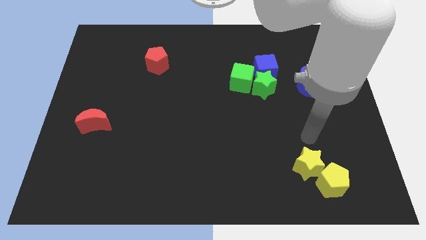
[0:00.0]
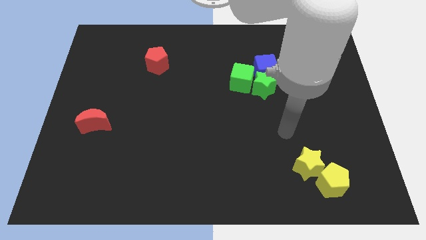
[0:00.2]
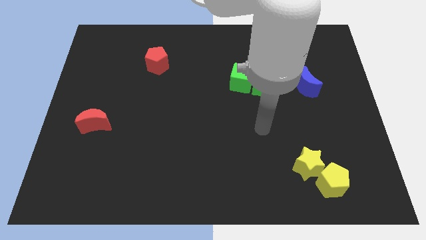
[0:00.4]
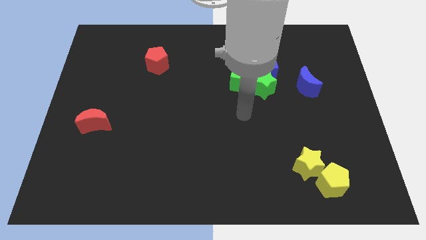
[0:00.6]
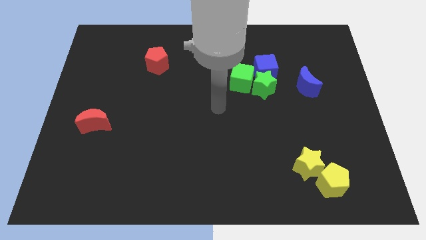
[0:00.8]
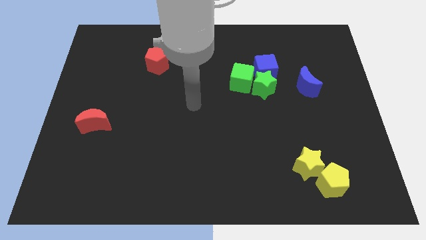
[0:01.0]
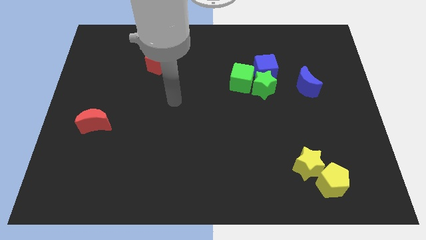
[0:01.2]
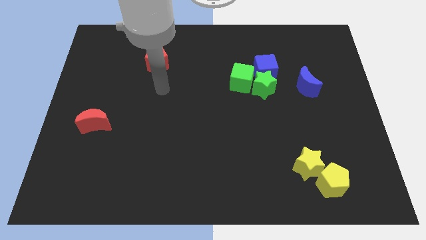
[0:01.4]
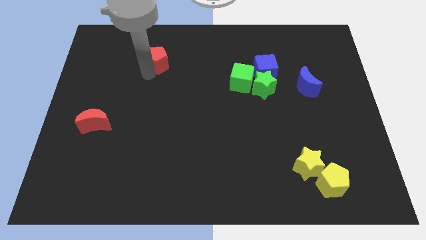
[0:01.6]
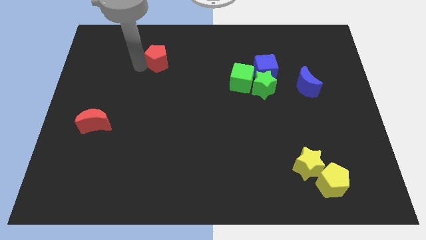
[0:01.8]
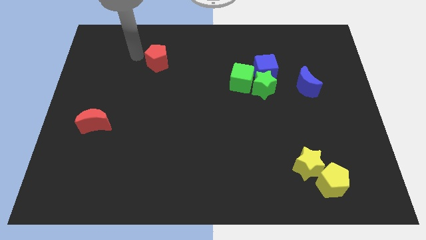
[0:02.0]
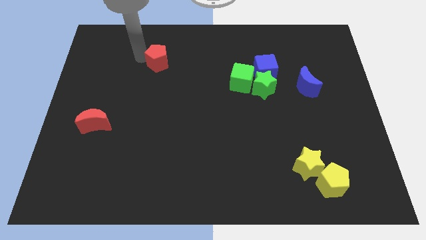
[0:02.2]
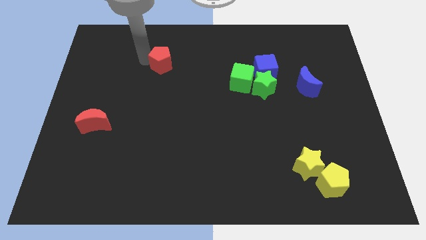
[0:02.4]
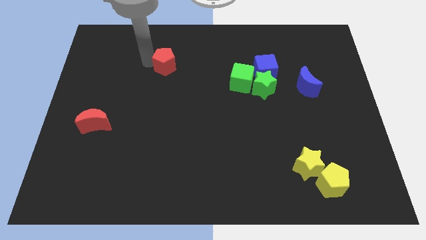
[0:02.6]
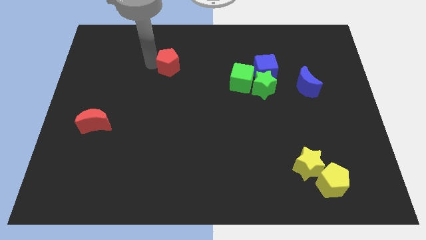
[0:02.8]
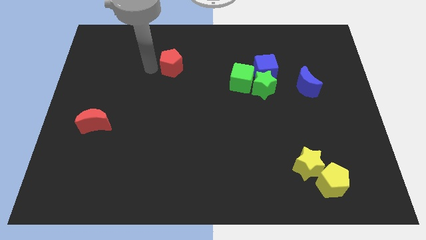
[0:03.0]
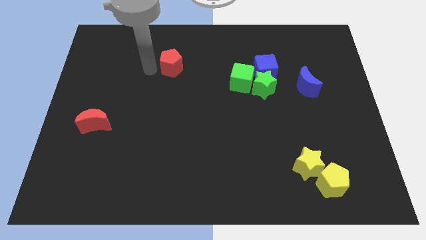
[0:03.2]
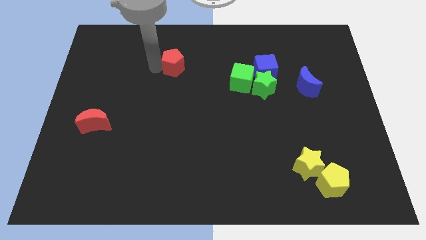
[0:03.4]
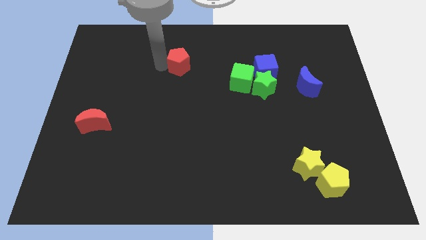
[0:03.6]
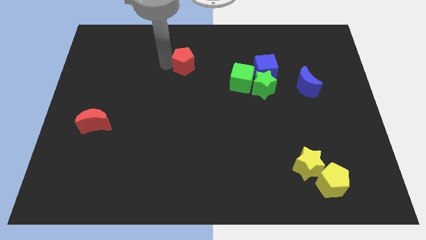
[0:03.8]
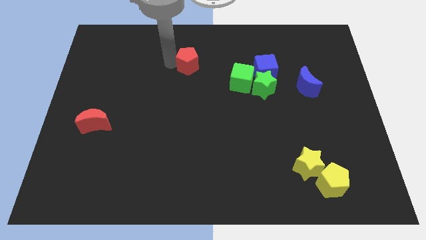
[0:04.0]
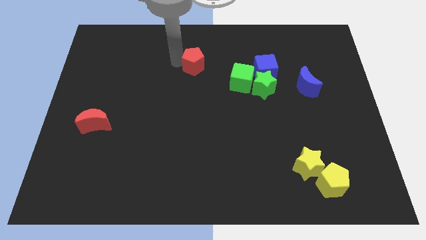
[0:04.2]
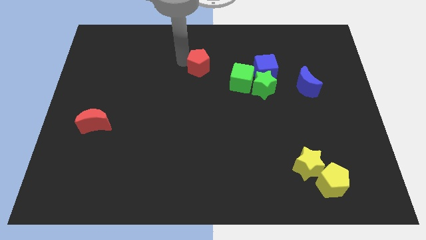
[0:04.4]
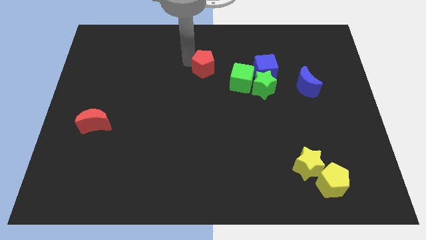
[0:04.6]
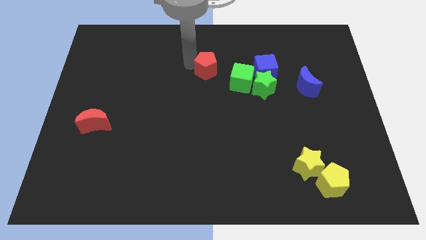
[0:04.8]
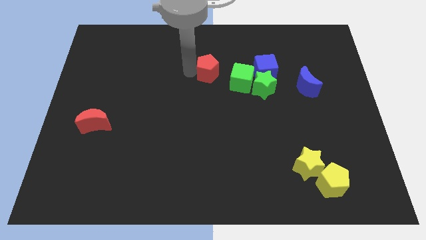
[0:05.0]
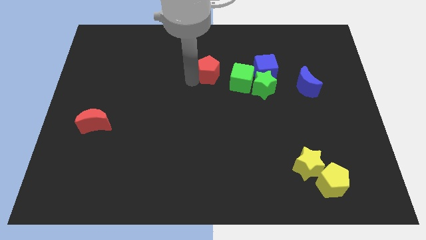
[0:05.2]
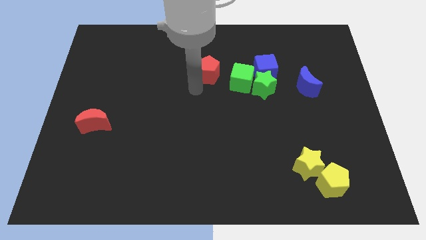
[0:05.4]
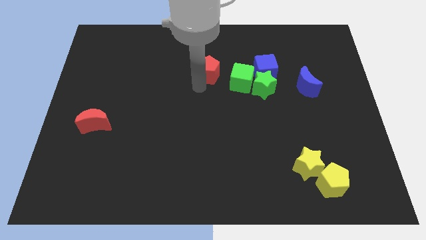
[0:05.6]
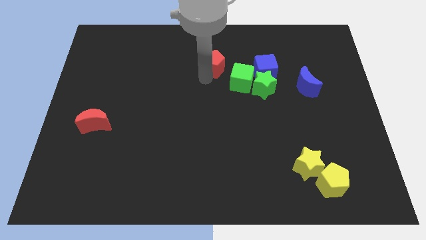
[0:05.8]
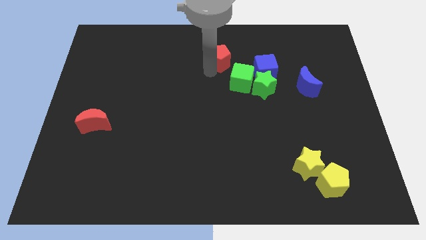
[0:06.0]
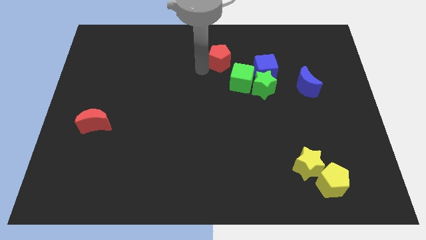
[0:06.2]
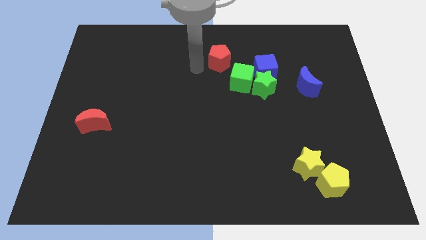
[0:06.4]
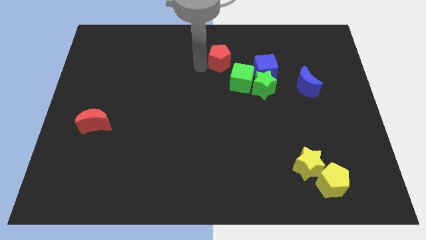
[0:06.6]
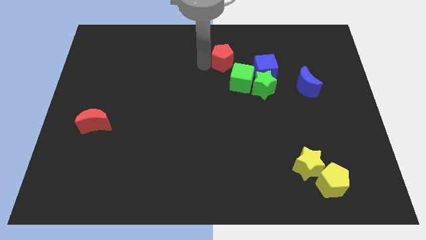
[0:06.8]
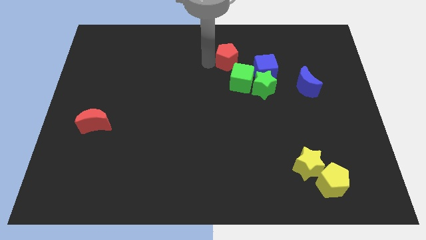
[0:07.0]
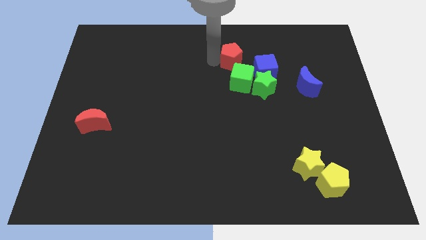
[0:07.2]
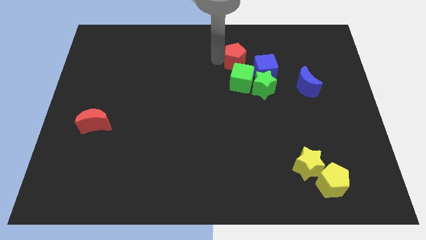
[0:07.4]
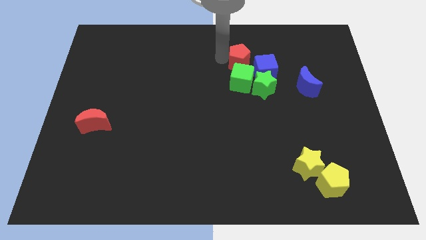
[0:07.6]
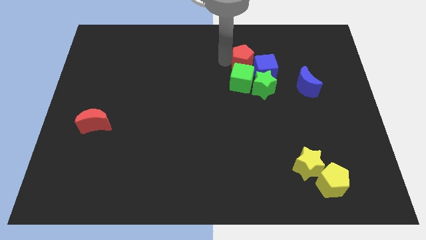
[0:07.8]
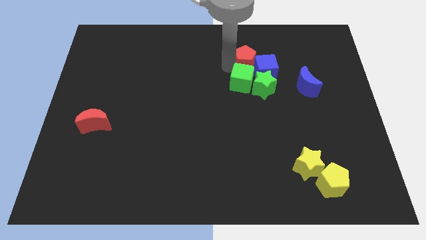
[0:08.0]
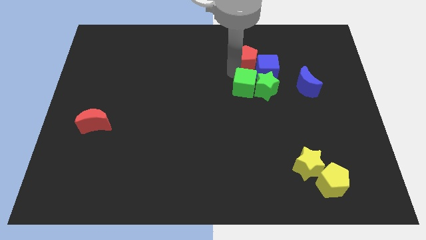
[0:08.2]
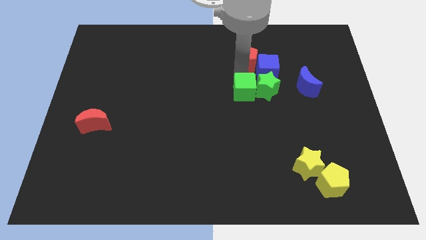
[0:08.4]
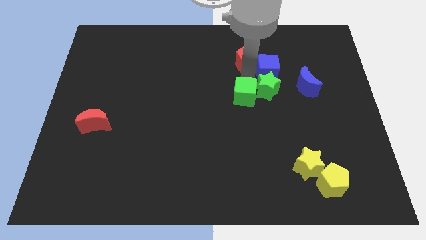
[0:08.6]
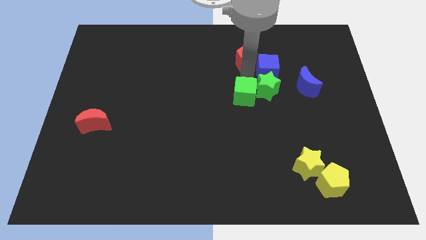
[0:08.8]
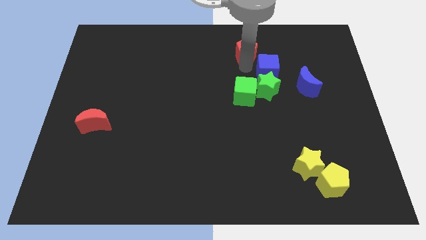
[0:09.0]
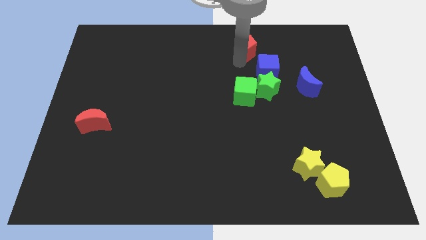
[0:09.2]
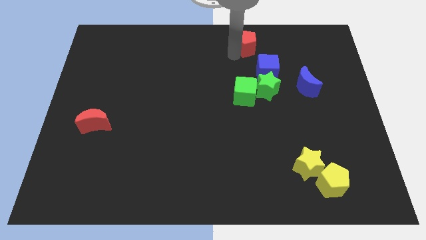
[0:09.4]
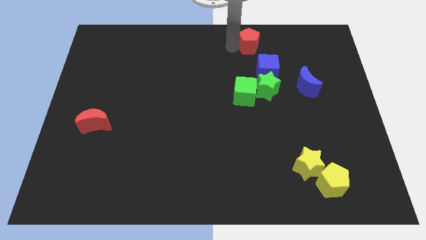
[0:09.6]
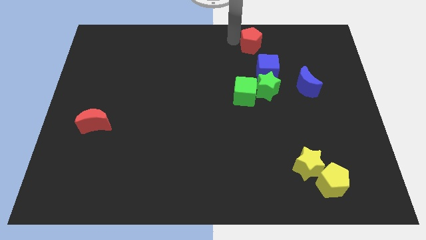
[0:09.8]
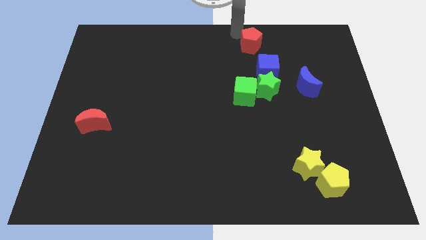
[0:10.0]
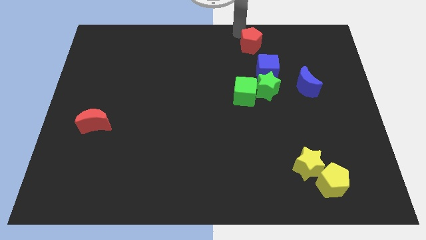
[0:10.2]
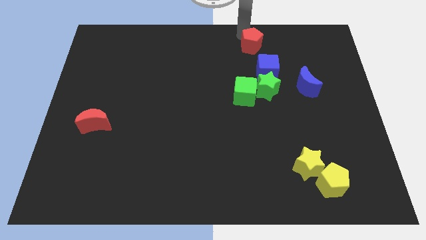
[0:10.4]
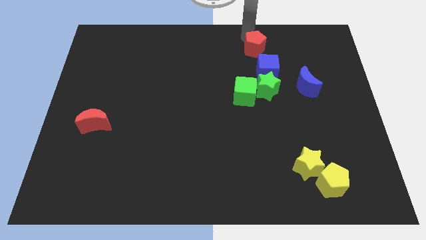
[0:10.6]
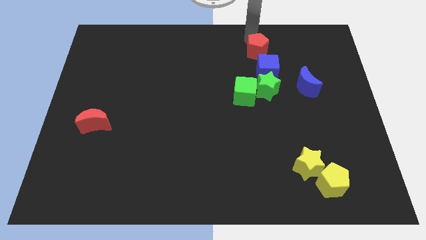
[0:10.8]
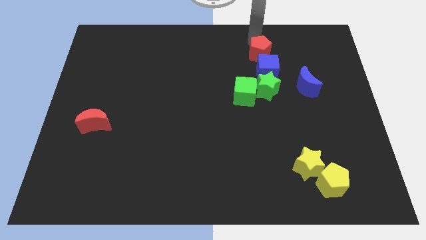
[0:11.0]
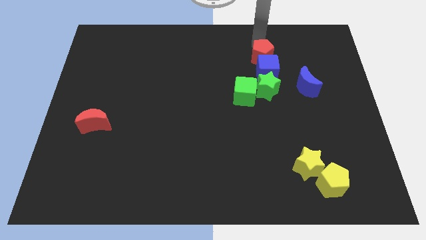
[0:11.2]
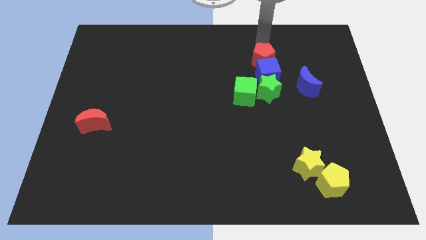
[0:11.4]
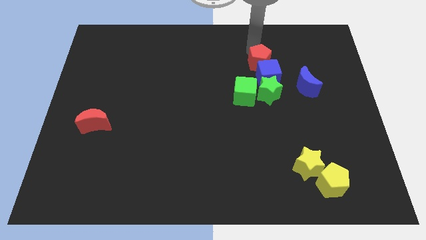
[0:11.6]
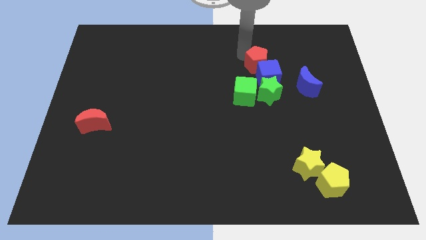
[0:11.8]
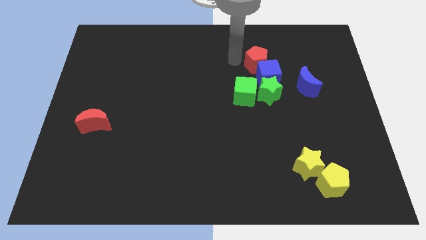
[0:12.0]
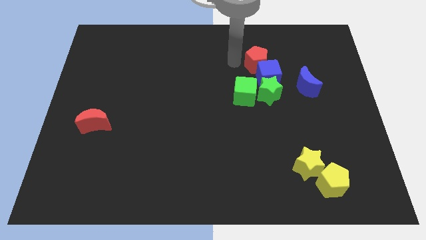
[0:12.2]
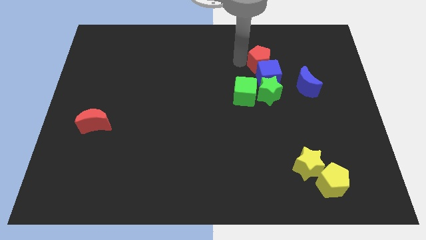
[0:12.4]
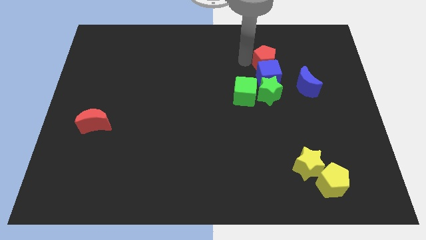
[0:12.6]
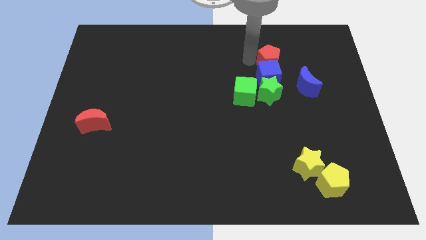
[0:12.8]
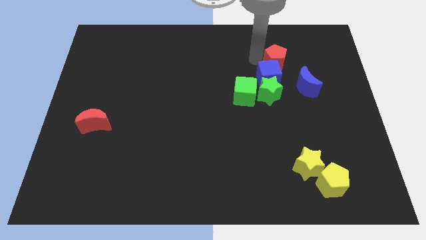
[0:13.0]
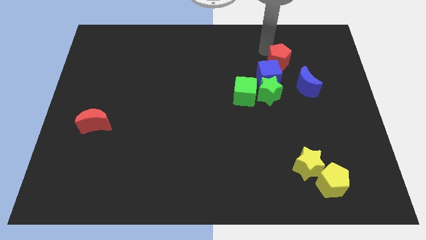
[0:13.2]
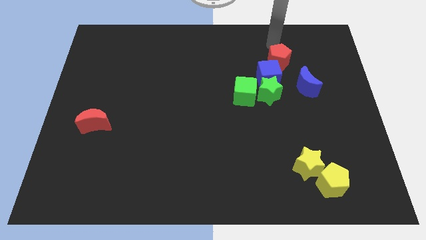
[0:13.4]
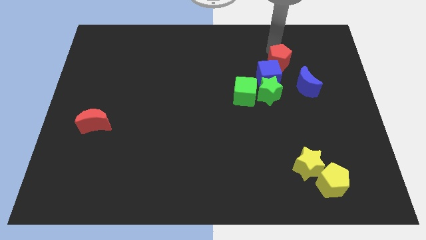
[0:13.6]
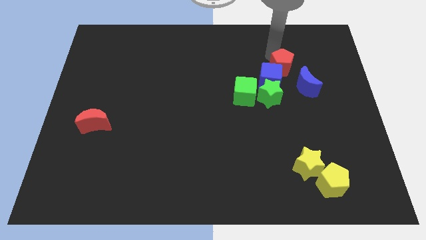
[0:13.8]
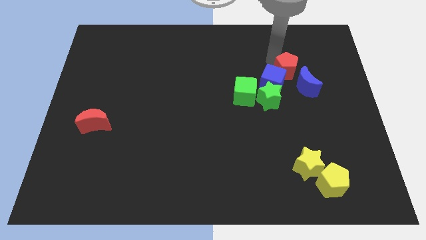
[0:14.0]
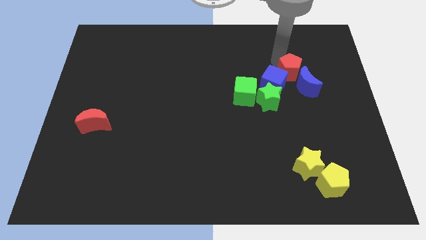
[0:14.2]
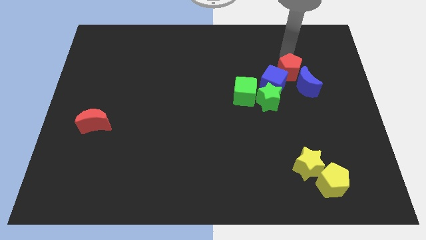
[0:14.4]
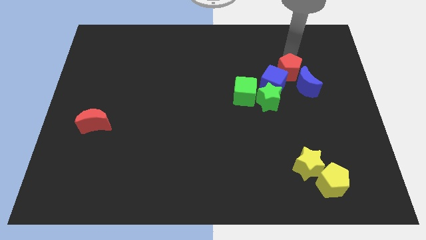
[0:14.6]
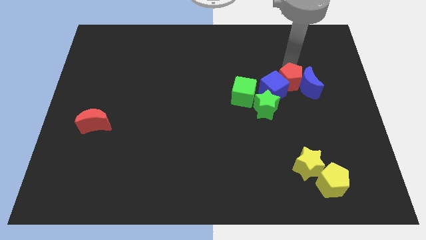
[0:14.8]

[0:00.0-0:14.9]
move the red pentagon to the right of the green cube
